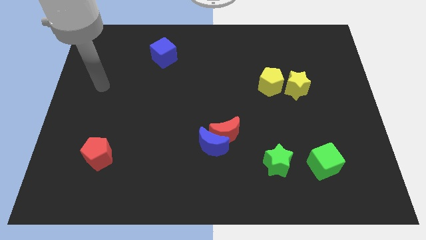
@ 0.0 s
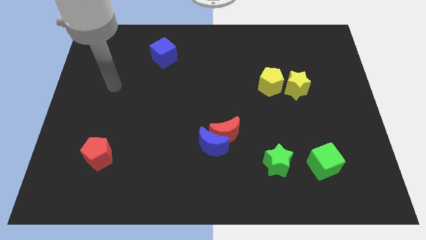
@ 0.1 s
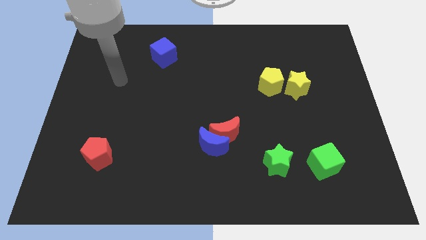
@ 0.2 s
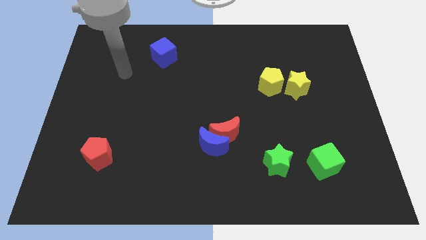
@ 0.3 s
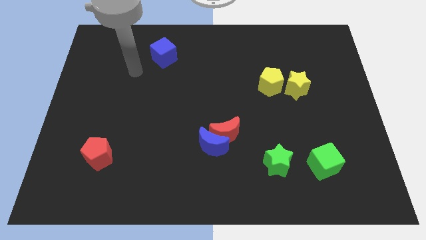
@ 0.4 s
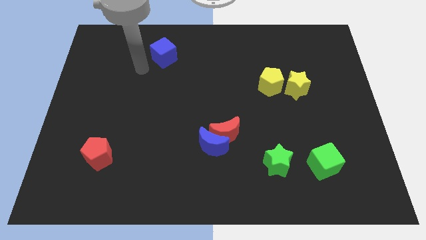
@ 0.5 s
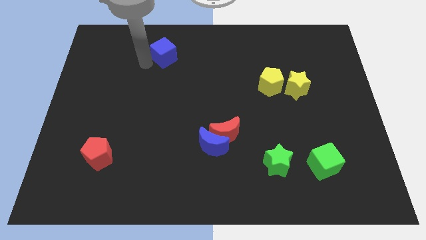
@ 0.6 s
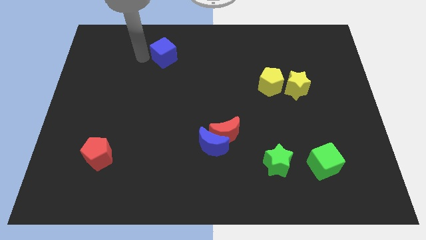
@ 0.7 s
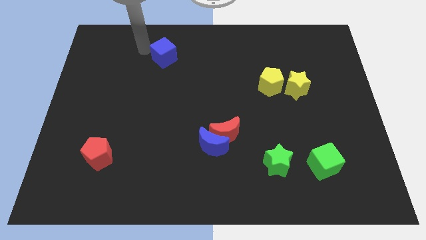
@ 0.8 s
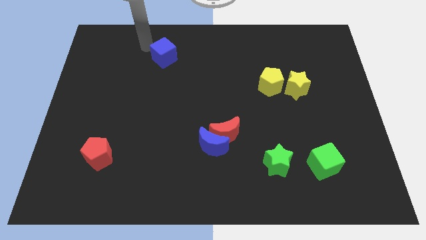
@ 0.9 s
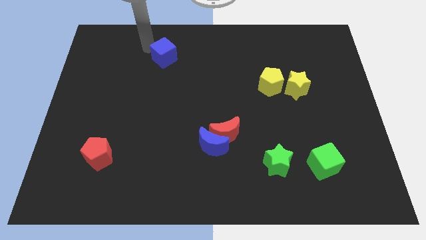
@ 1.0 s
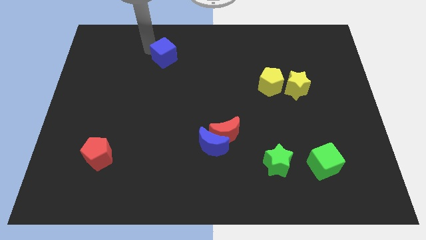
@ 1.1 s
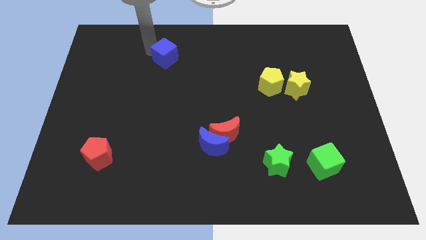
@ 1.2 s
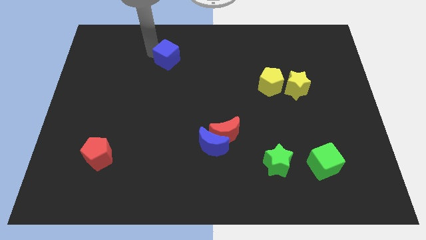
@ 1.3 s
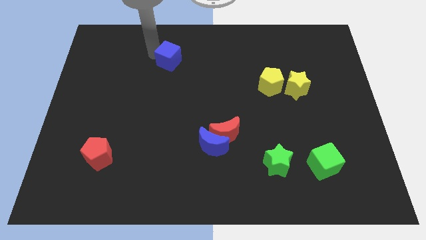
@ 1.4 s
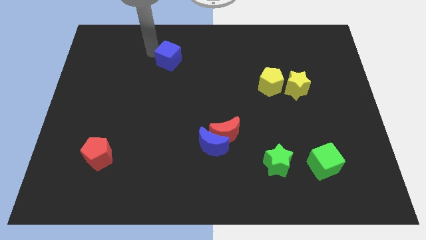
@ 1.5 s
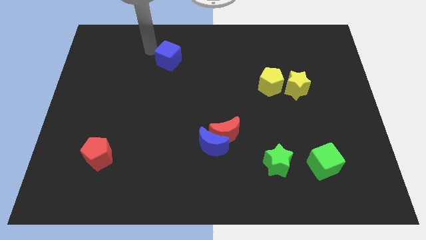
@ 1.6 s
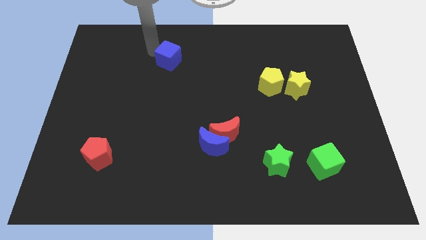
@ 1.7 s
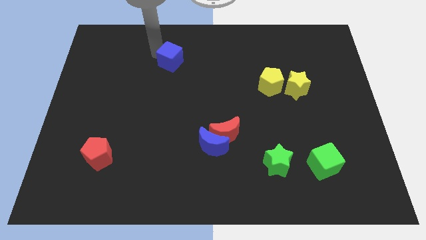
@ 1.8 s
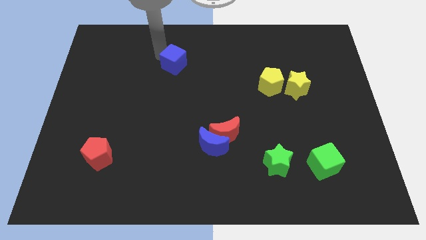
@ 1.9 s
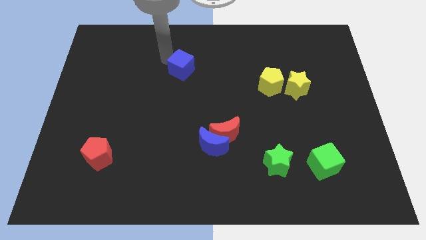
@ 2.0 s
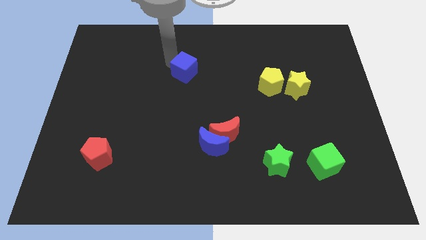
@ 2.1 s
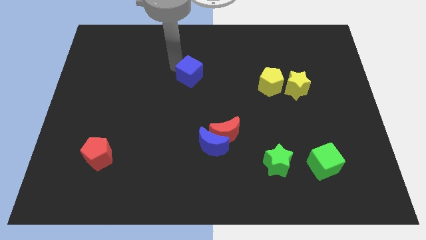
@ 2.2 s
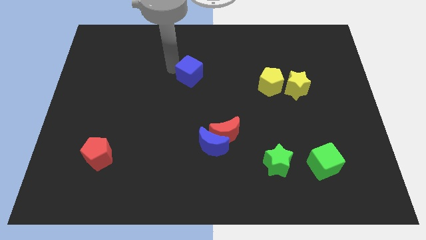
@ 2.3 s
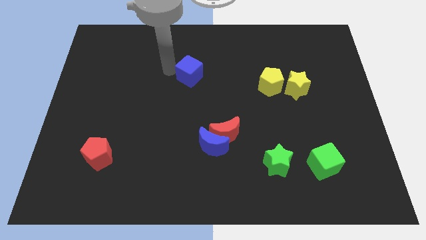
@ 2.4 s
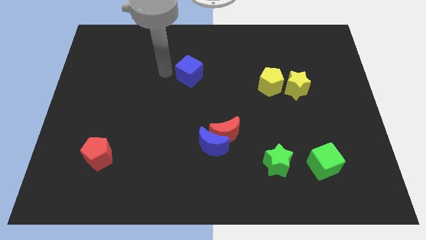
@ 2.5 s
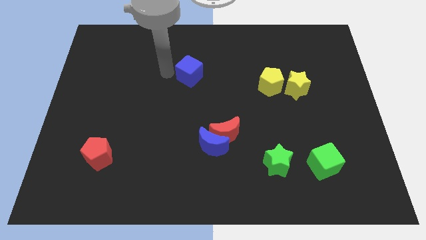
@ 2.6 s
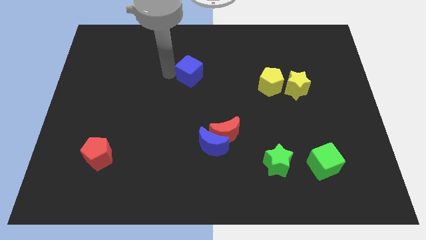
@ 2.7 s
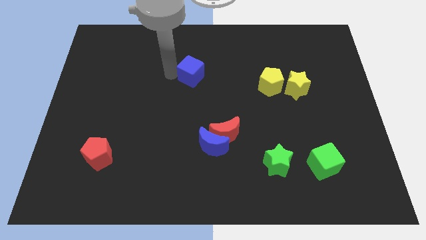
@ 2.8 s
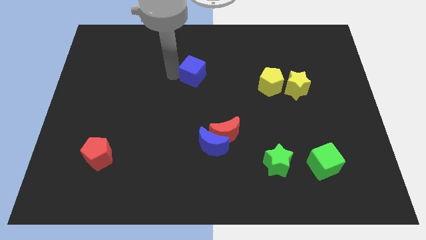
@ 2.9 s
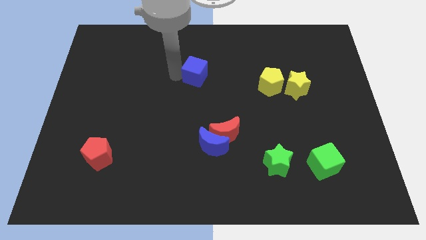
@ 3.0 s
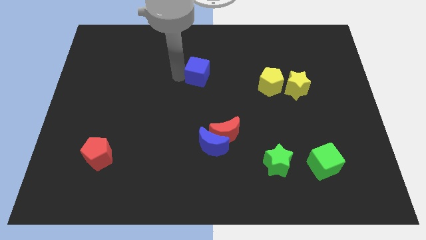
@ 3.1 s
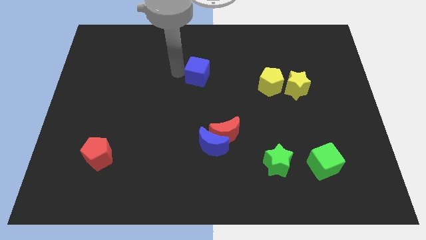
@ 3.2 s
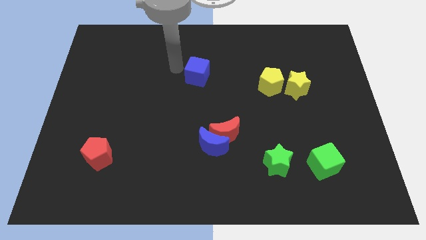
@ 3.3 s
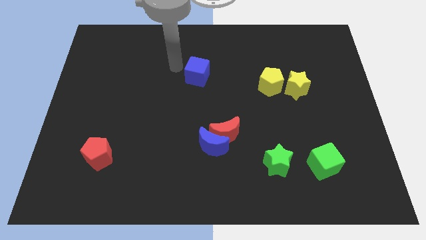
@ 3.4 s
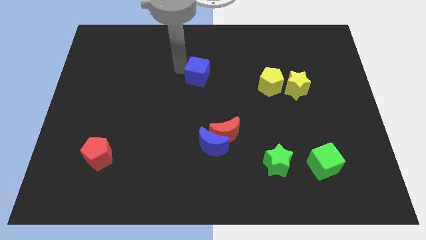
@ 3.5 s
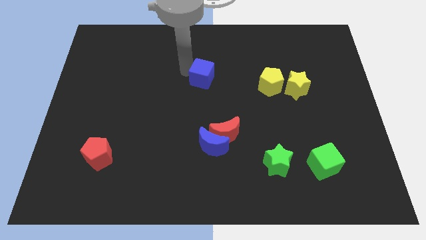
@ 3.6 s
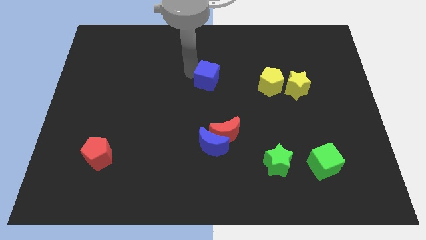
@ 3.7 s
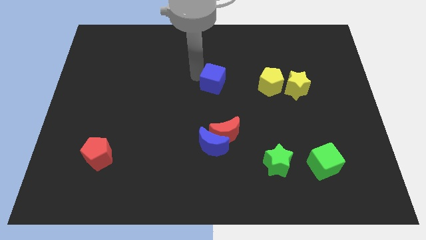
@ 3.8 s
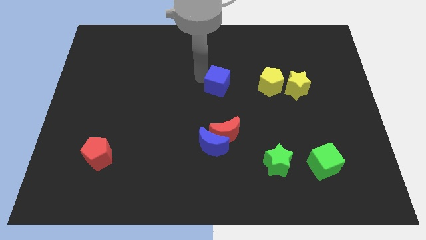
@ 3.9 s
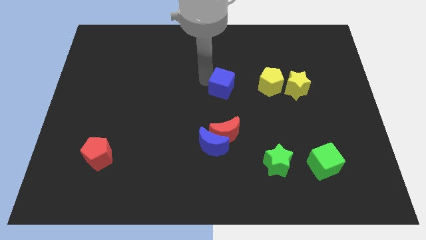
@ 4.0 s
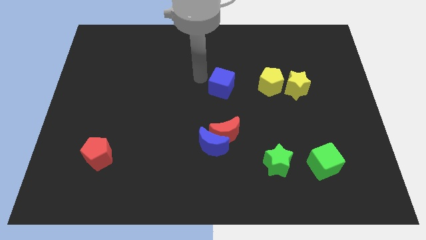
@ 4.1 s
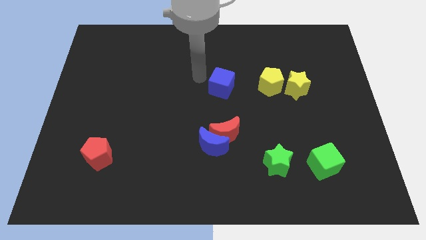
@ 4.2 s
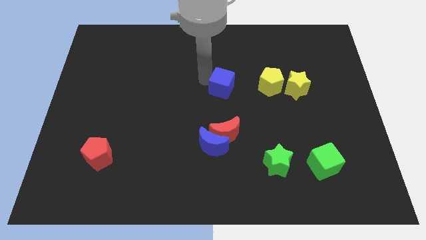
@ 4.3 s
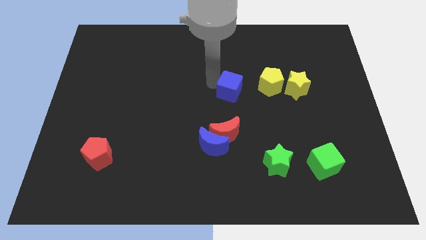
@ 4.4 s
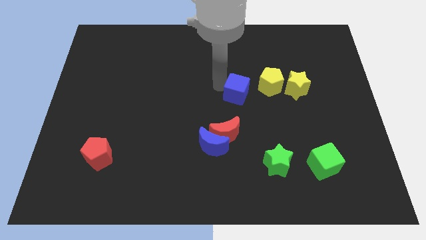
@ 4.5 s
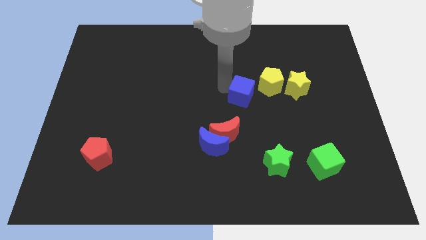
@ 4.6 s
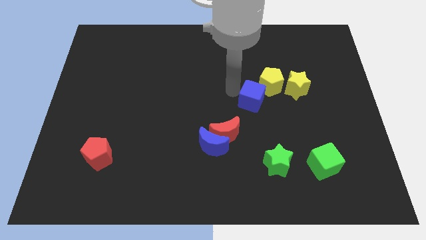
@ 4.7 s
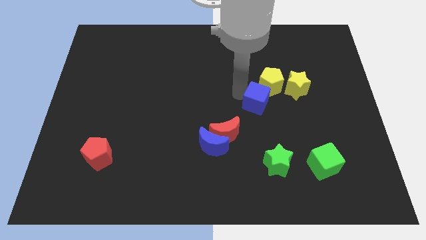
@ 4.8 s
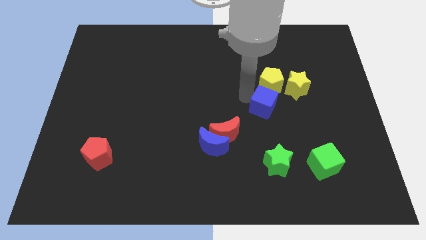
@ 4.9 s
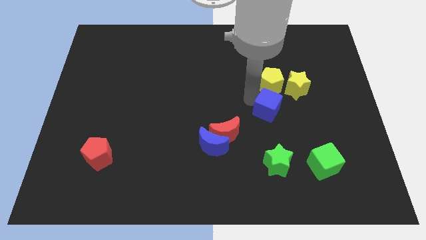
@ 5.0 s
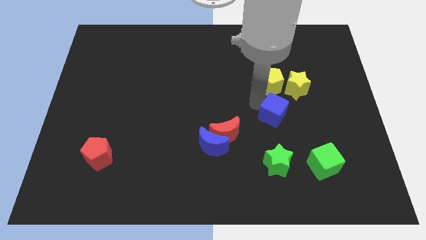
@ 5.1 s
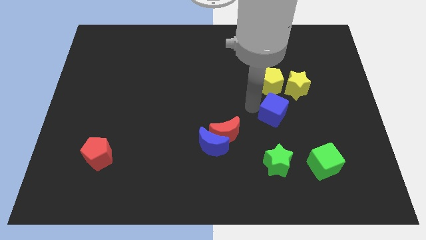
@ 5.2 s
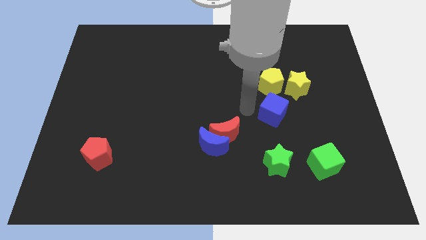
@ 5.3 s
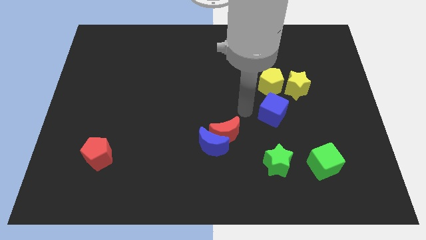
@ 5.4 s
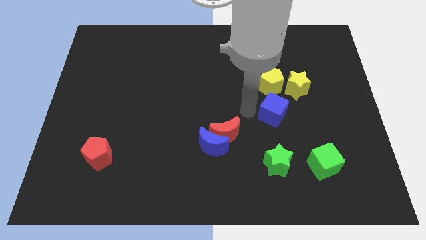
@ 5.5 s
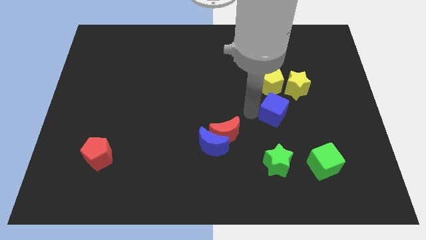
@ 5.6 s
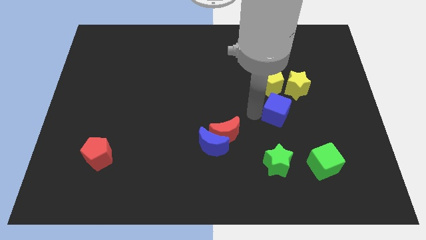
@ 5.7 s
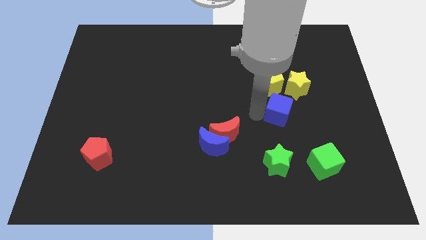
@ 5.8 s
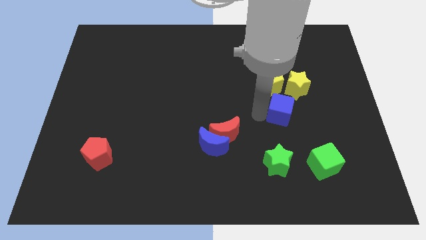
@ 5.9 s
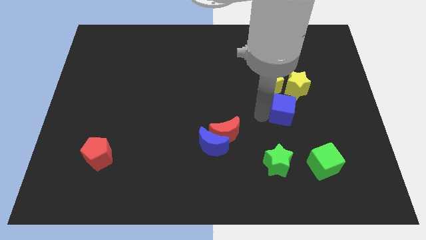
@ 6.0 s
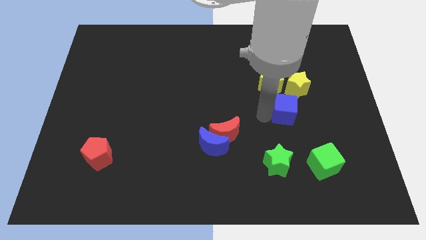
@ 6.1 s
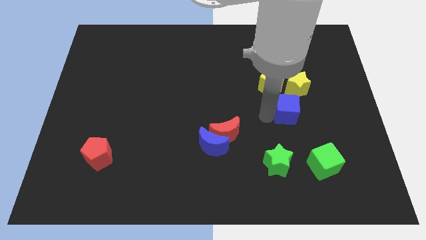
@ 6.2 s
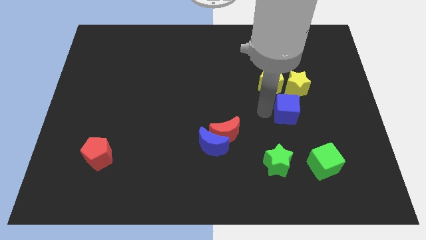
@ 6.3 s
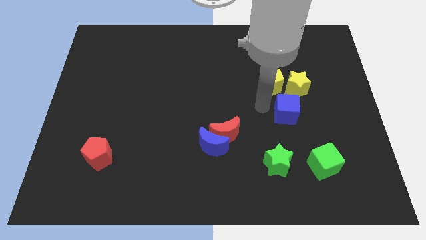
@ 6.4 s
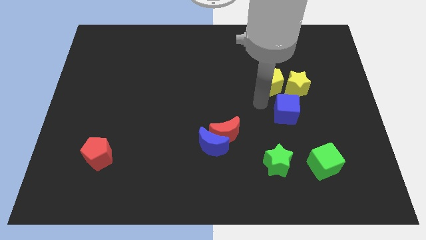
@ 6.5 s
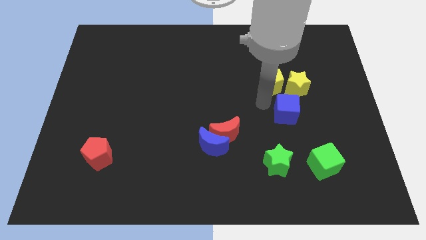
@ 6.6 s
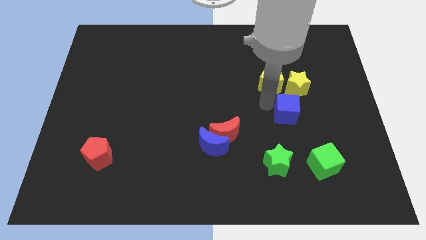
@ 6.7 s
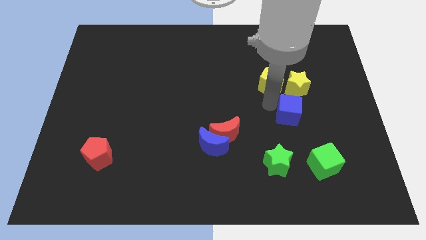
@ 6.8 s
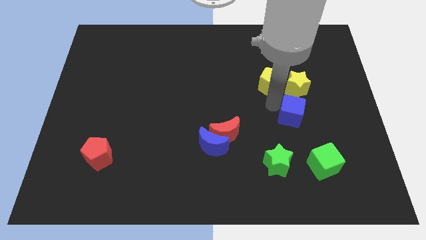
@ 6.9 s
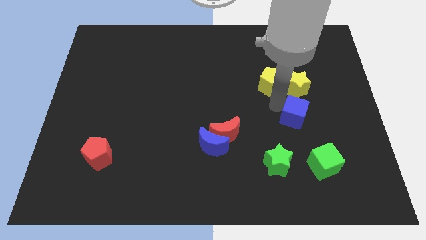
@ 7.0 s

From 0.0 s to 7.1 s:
slide the blue cube to the top of the green cube
